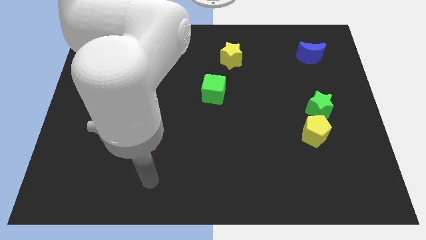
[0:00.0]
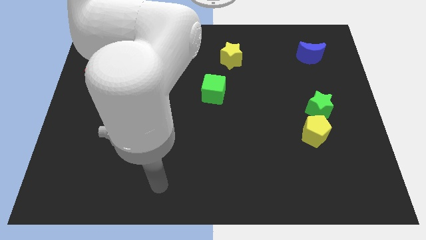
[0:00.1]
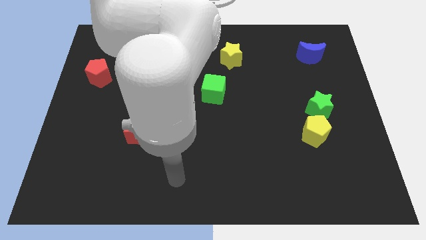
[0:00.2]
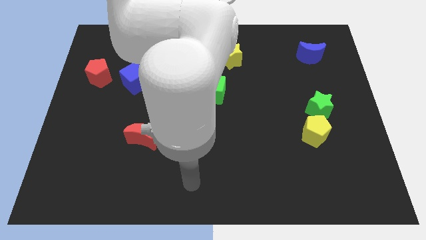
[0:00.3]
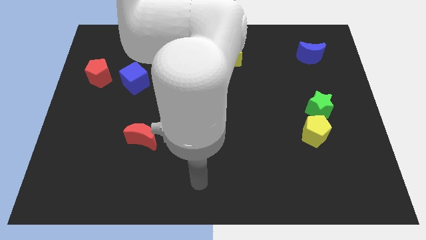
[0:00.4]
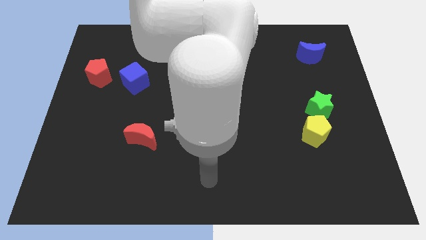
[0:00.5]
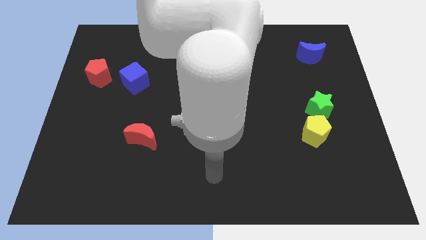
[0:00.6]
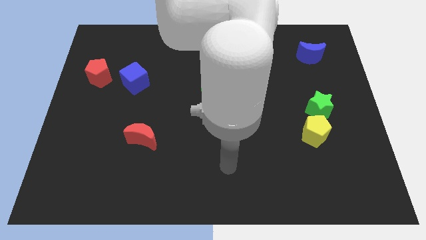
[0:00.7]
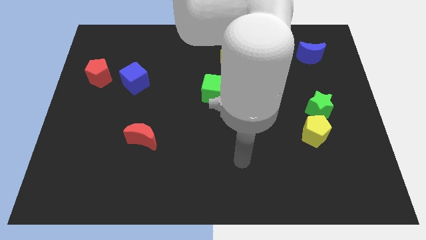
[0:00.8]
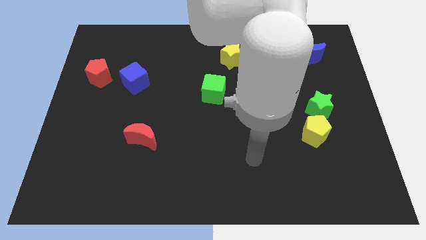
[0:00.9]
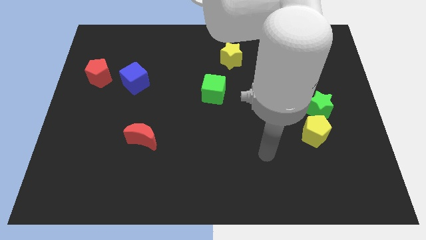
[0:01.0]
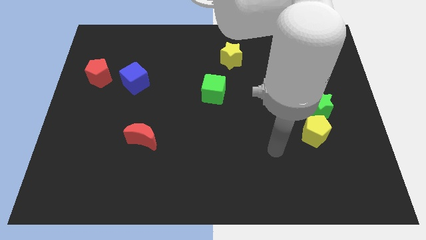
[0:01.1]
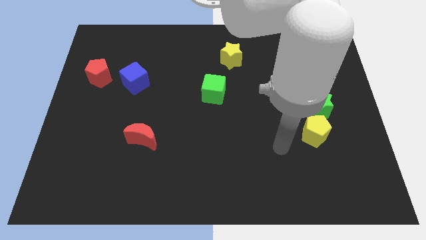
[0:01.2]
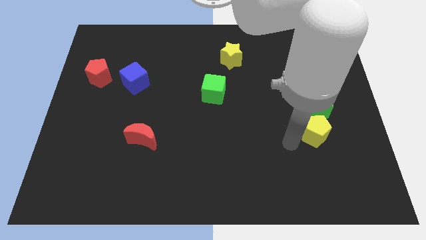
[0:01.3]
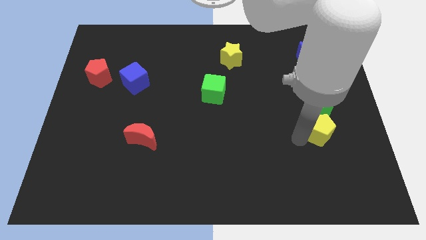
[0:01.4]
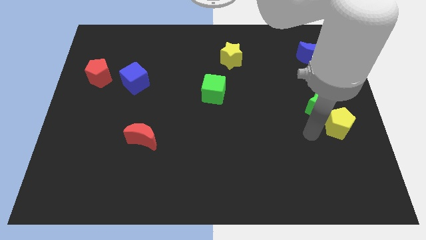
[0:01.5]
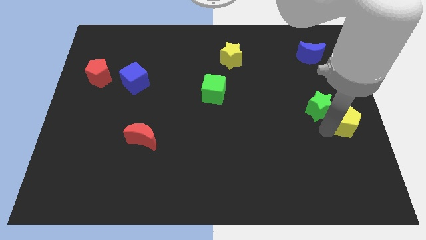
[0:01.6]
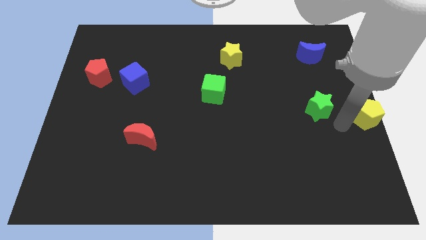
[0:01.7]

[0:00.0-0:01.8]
separate the green star from the yellow pentagon

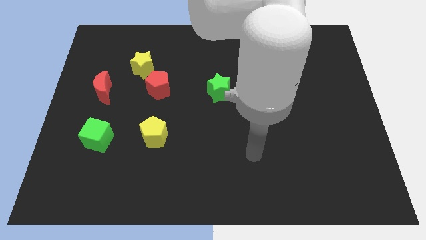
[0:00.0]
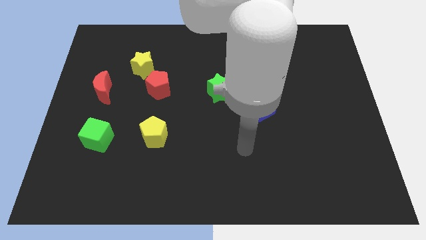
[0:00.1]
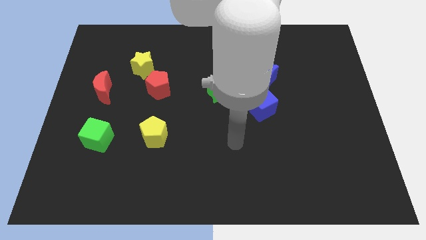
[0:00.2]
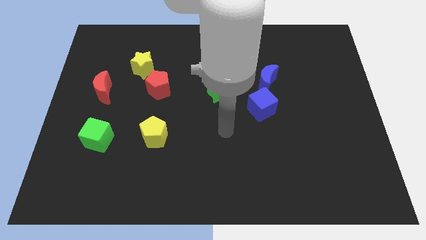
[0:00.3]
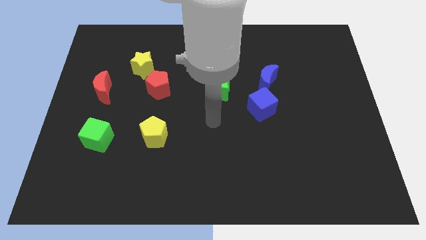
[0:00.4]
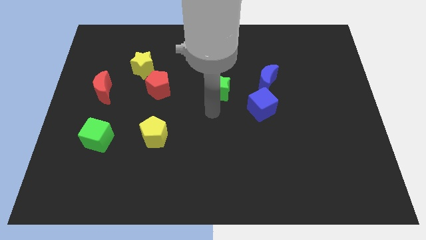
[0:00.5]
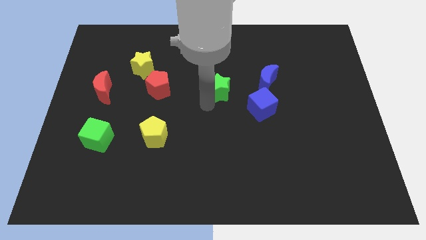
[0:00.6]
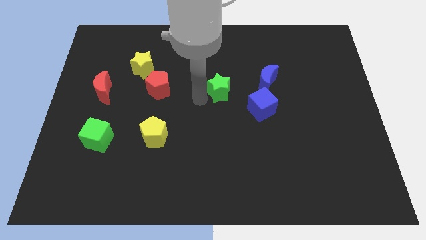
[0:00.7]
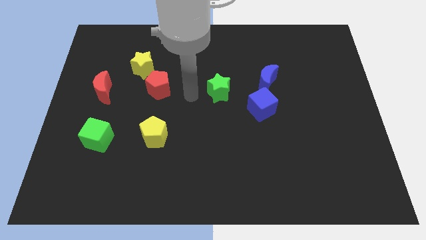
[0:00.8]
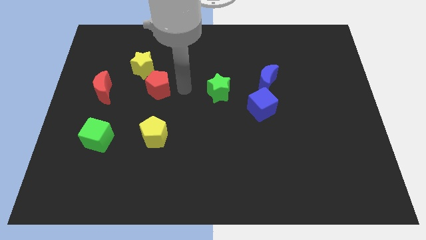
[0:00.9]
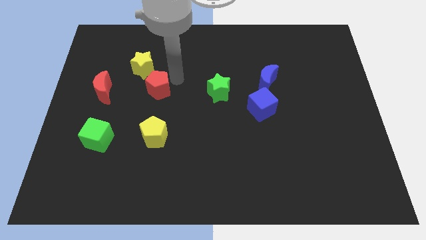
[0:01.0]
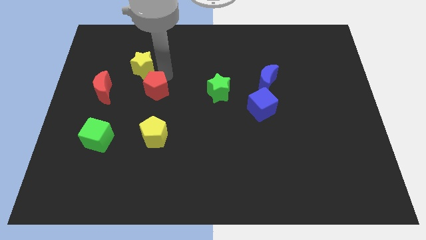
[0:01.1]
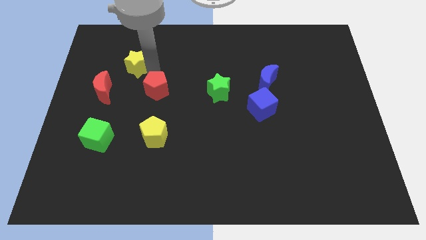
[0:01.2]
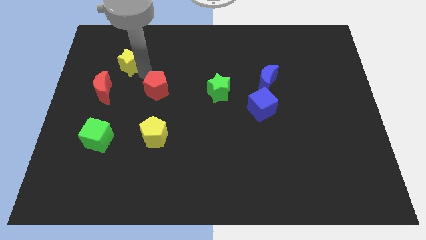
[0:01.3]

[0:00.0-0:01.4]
move the red pentagon away from the yellow star

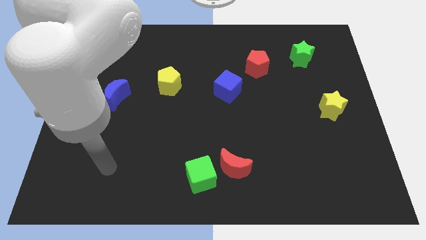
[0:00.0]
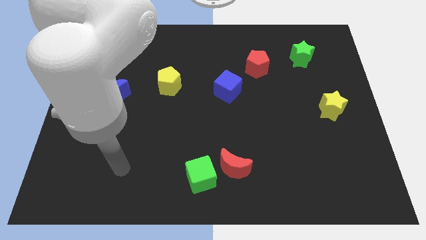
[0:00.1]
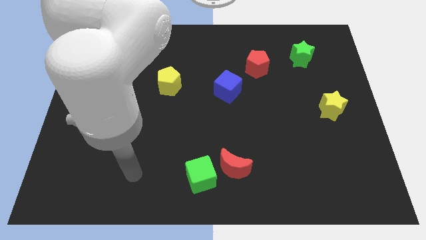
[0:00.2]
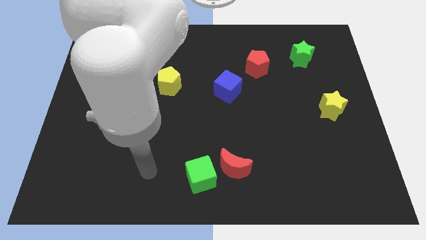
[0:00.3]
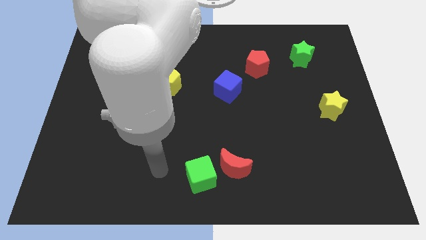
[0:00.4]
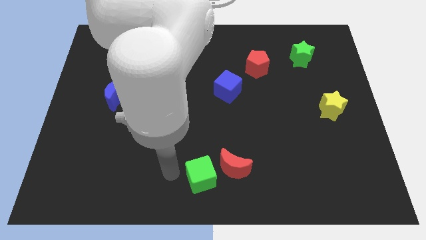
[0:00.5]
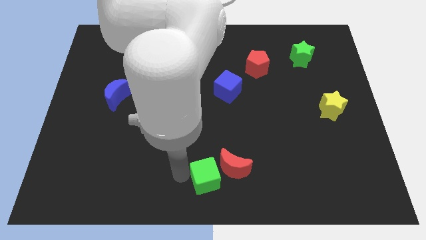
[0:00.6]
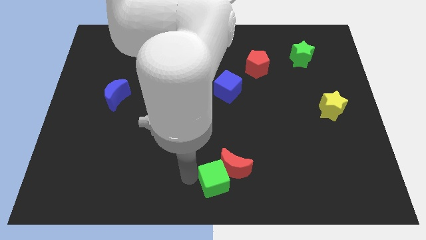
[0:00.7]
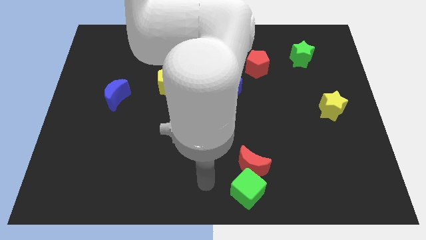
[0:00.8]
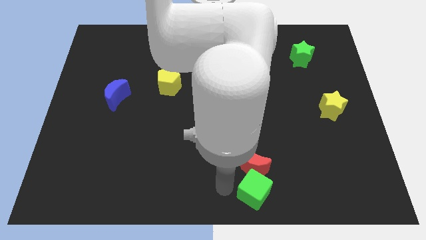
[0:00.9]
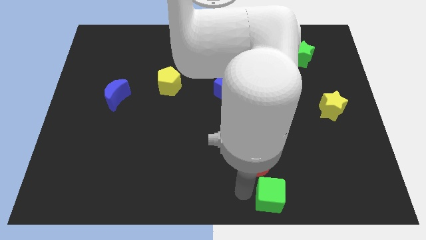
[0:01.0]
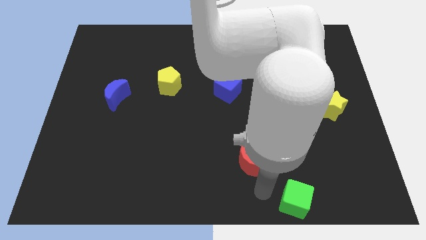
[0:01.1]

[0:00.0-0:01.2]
move the red moon away from the green cube

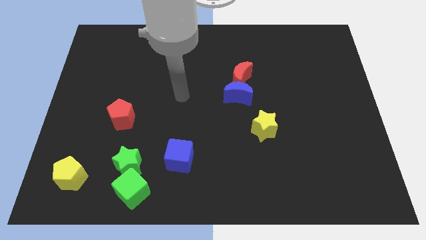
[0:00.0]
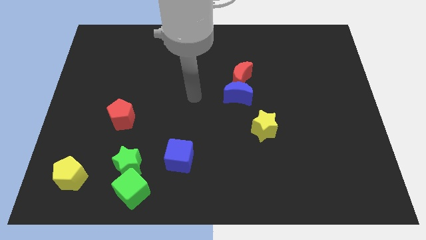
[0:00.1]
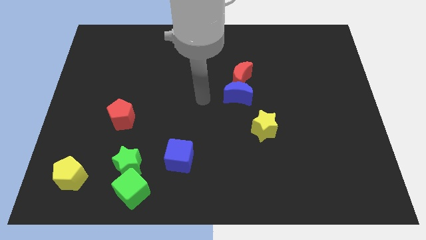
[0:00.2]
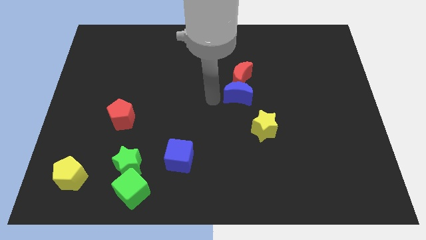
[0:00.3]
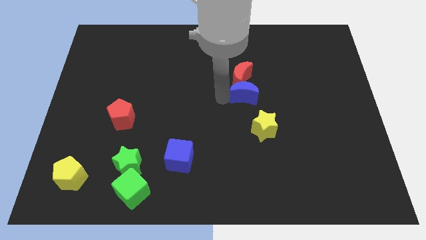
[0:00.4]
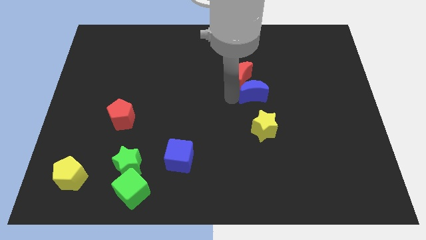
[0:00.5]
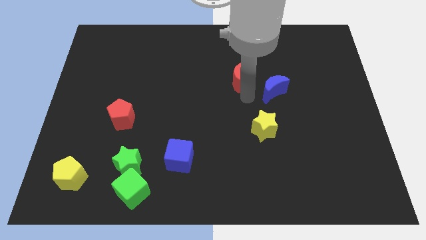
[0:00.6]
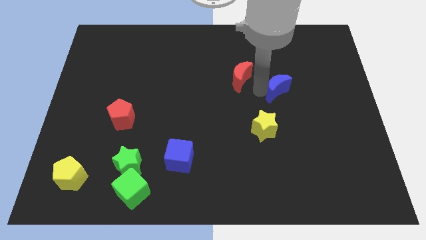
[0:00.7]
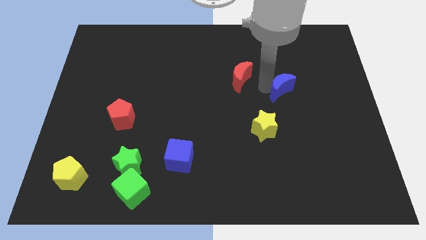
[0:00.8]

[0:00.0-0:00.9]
separate the red moon from the blue moon

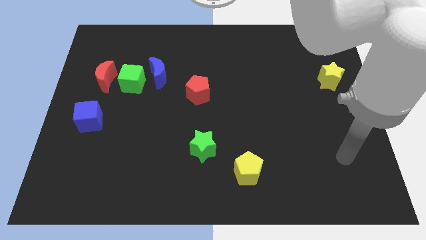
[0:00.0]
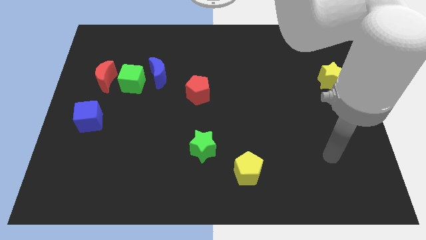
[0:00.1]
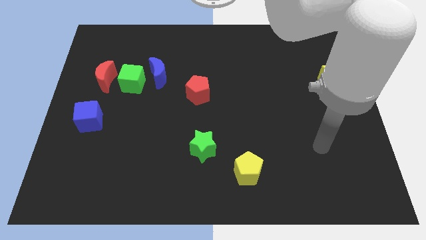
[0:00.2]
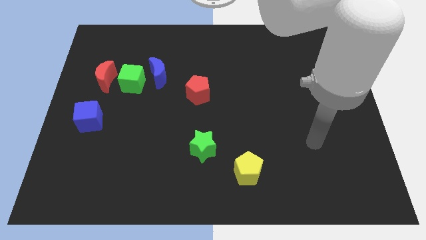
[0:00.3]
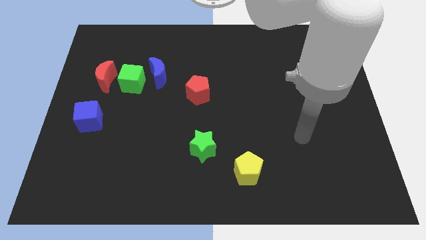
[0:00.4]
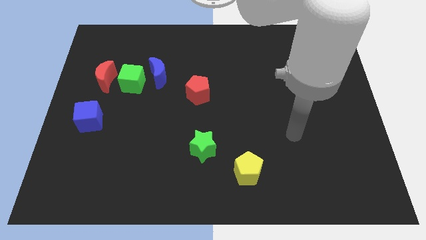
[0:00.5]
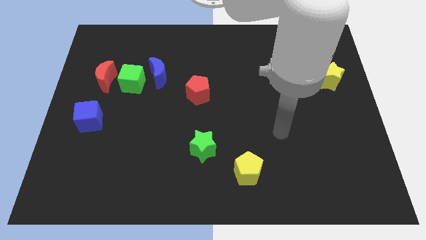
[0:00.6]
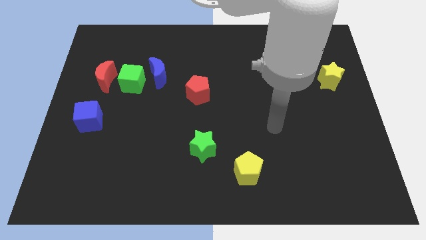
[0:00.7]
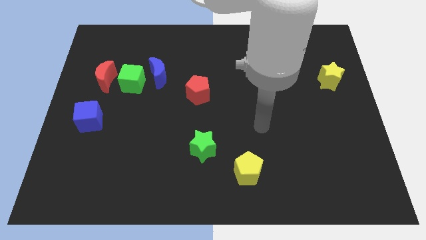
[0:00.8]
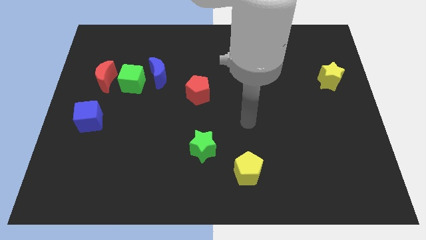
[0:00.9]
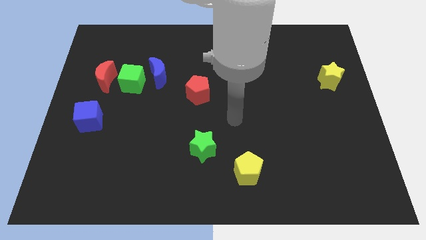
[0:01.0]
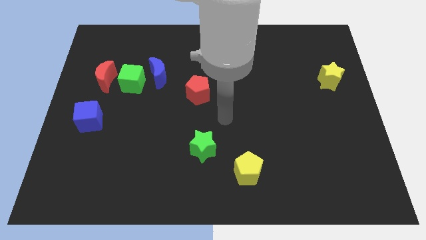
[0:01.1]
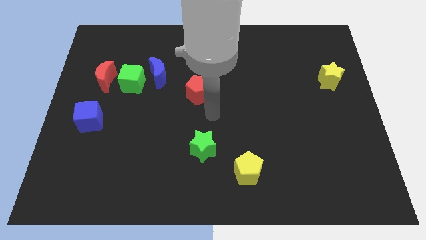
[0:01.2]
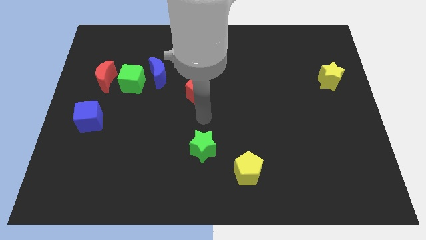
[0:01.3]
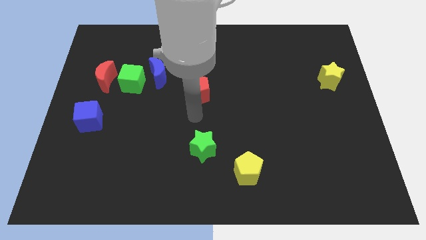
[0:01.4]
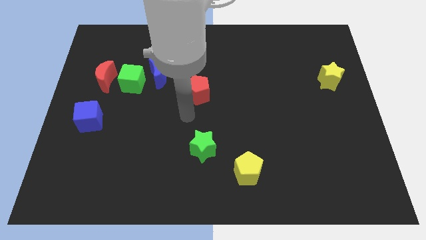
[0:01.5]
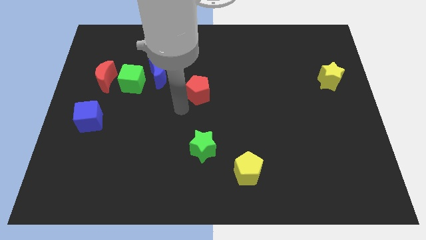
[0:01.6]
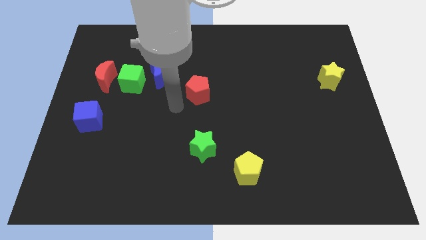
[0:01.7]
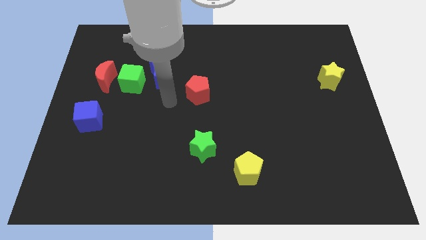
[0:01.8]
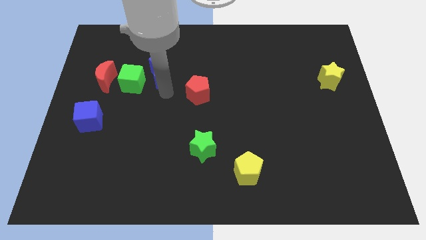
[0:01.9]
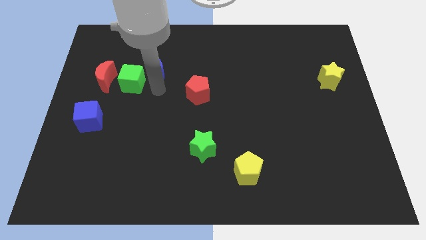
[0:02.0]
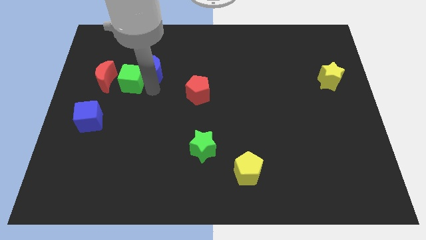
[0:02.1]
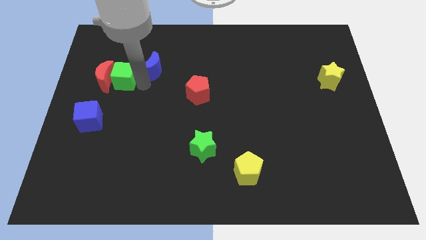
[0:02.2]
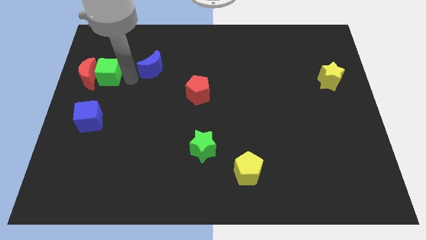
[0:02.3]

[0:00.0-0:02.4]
pull the blue moon apart from the green cube

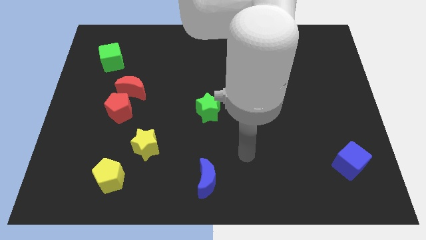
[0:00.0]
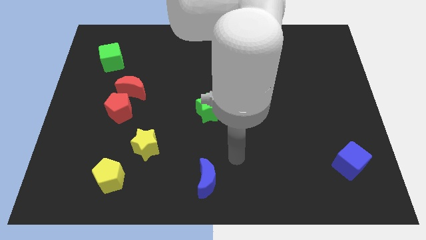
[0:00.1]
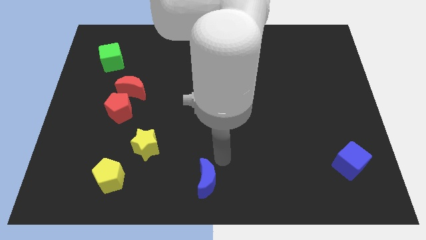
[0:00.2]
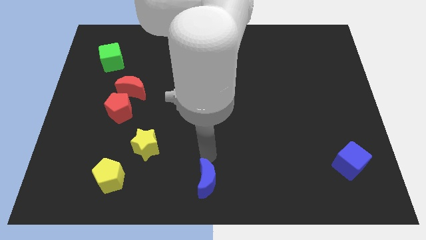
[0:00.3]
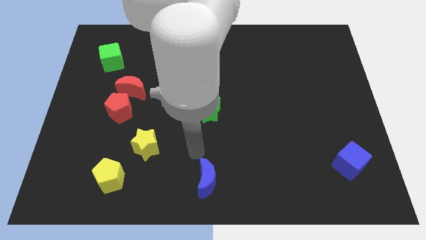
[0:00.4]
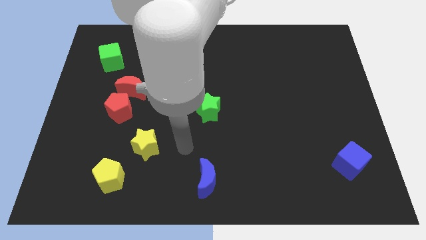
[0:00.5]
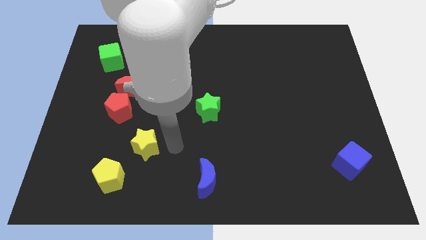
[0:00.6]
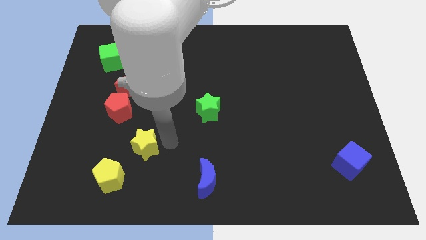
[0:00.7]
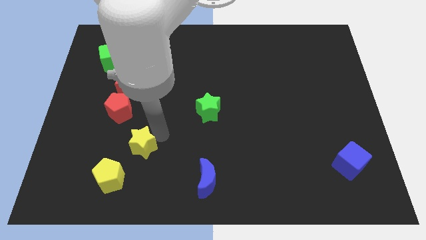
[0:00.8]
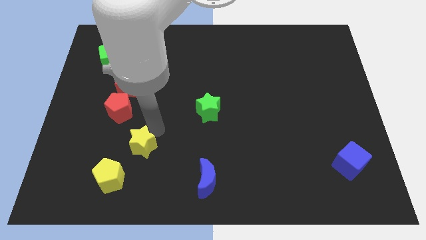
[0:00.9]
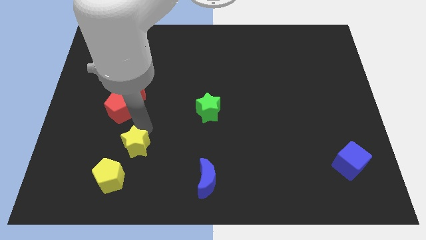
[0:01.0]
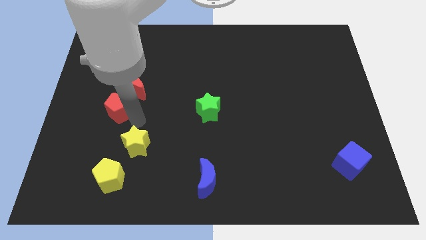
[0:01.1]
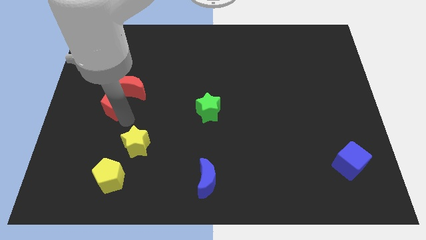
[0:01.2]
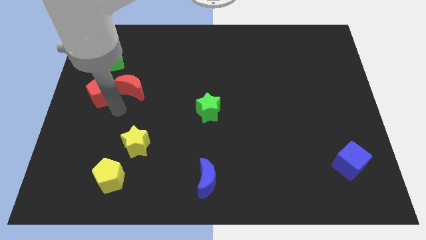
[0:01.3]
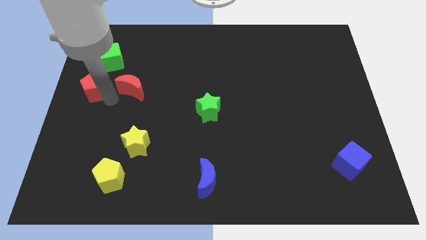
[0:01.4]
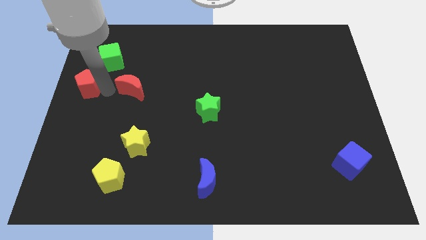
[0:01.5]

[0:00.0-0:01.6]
pull the red moon apart from the red pentagon
